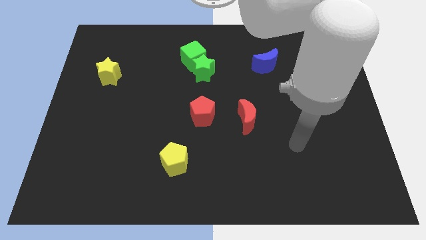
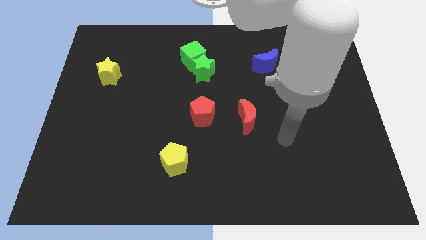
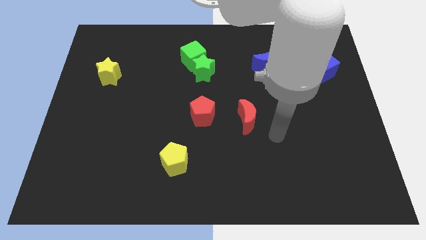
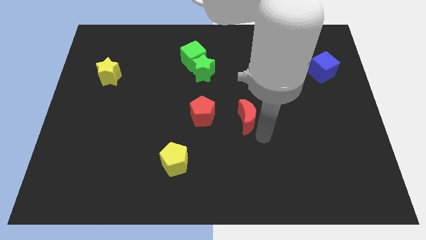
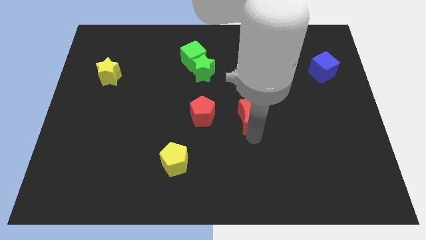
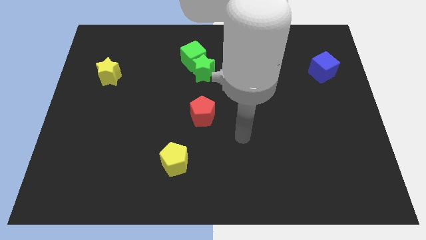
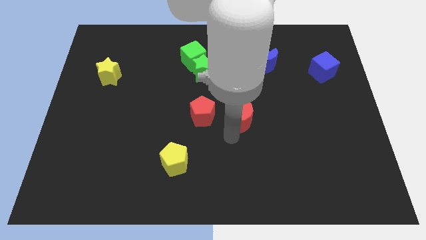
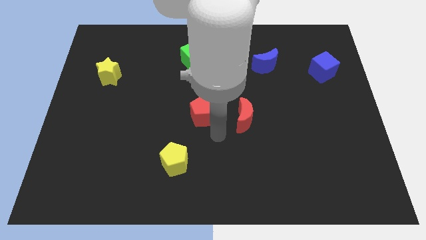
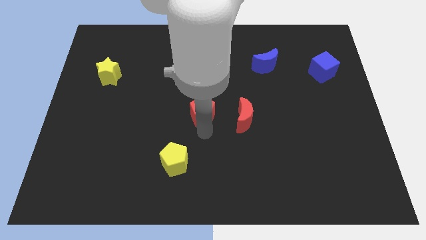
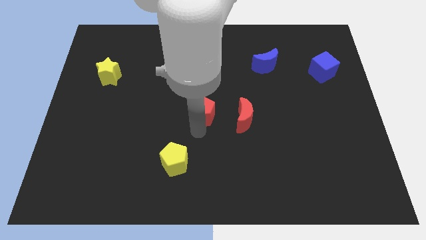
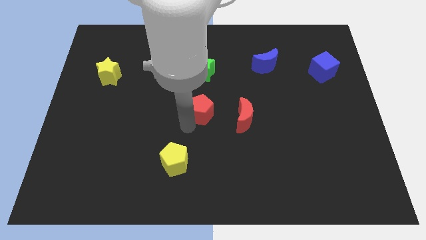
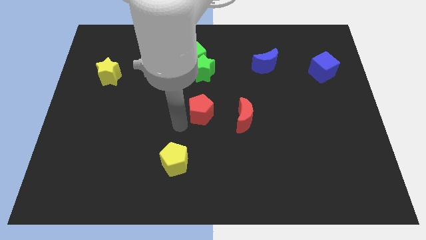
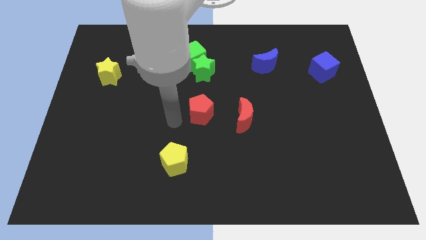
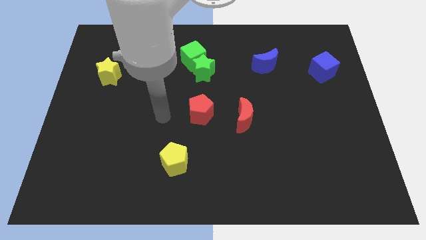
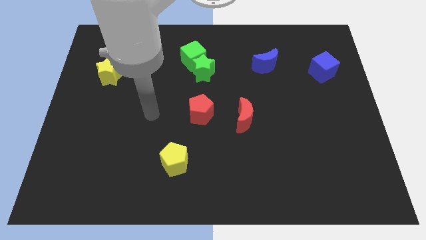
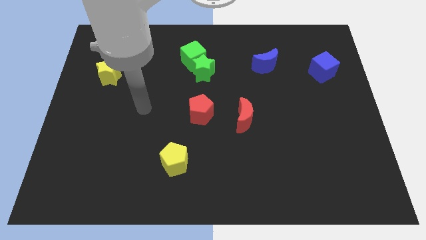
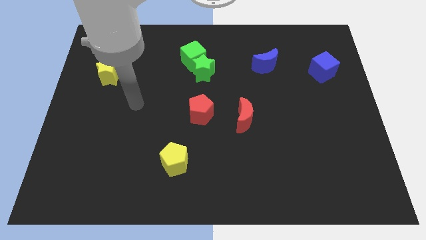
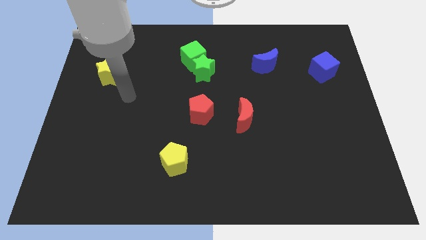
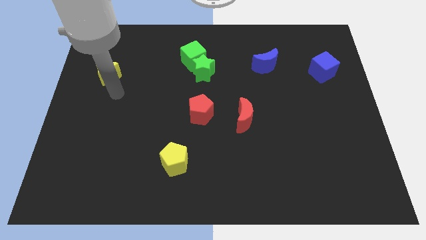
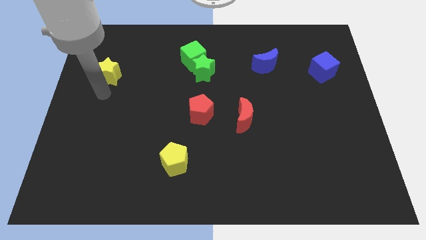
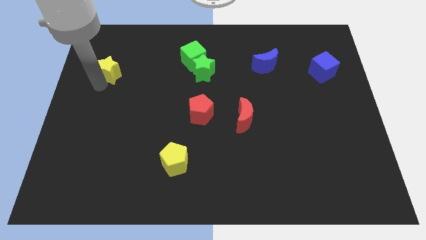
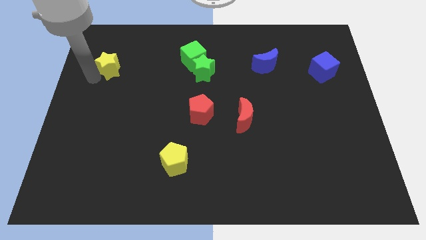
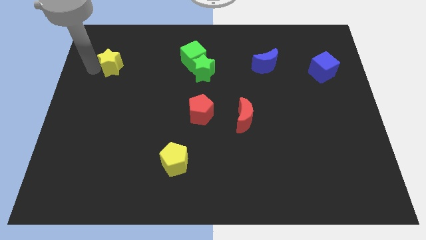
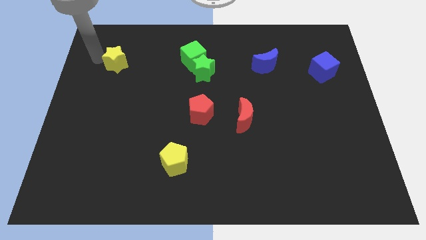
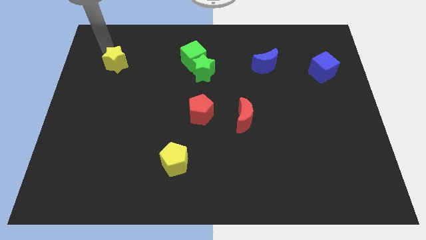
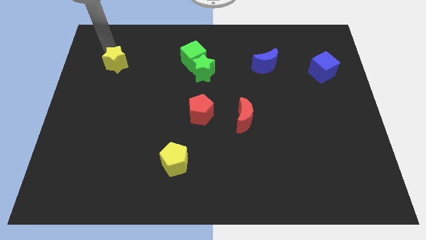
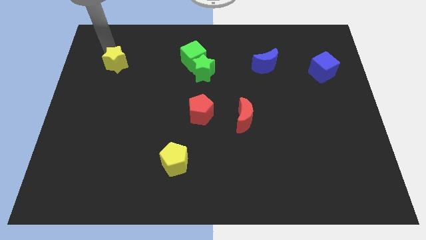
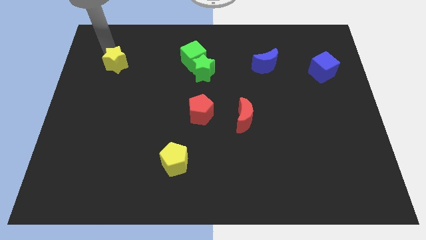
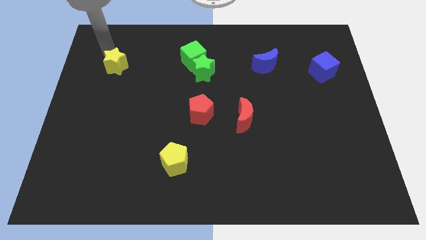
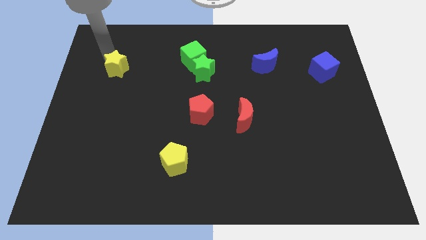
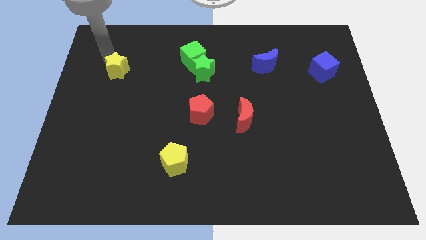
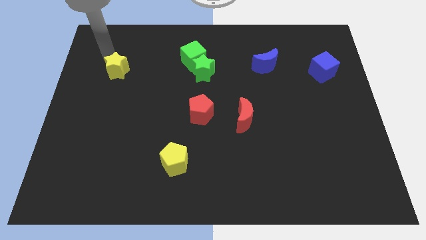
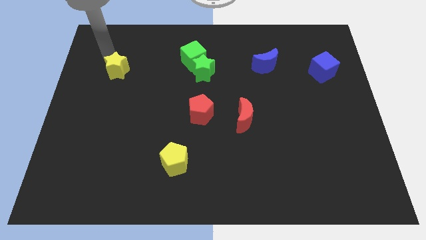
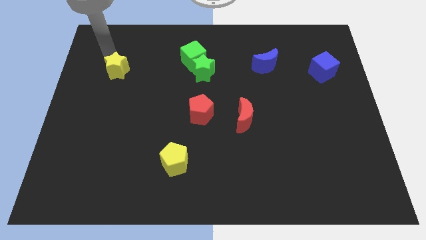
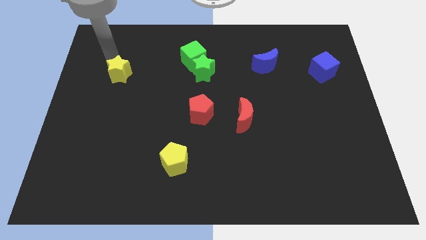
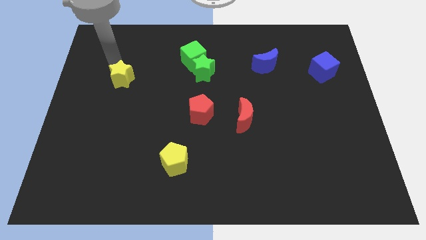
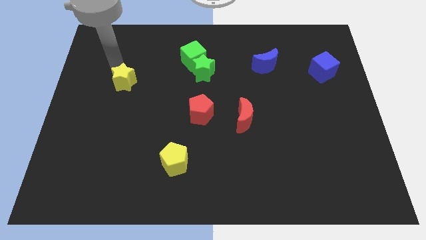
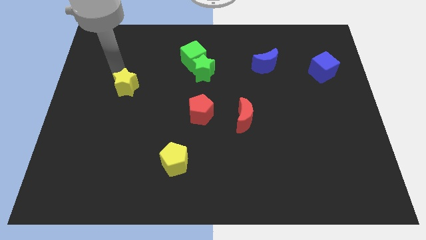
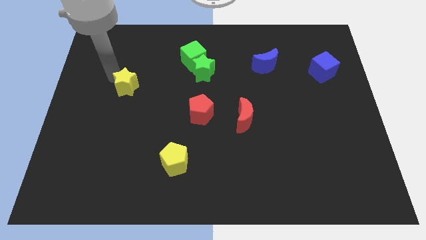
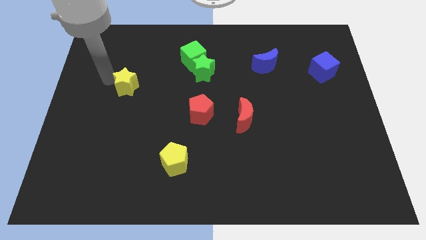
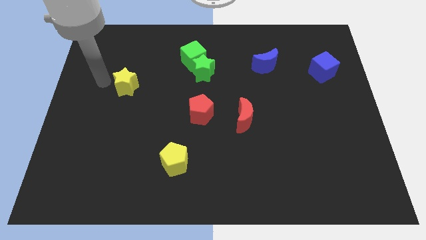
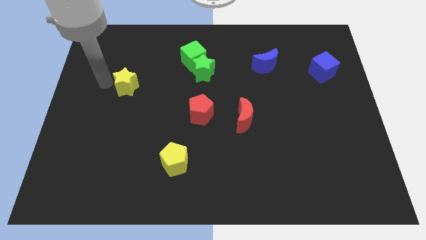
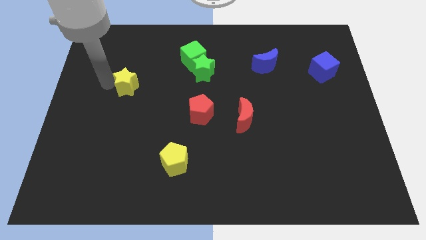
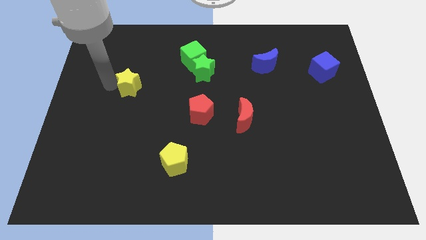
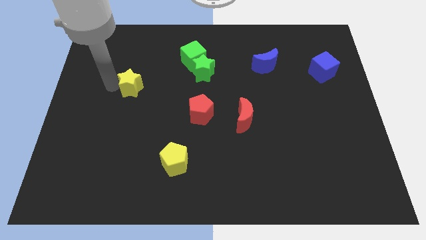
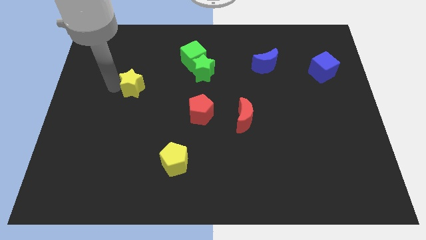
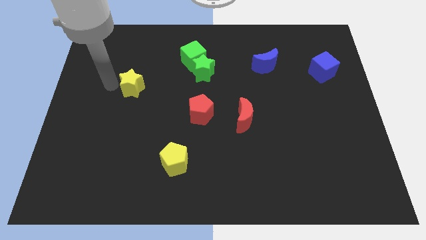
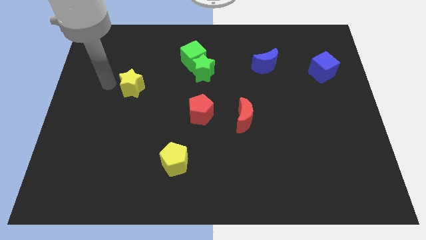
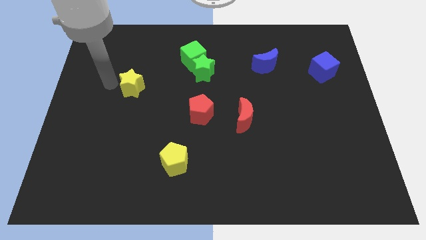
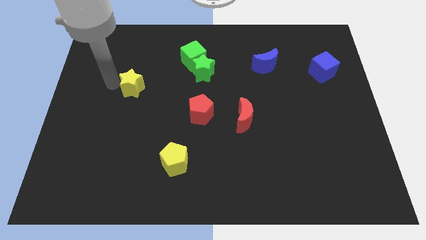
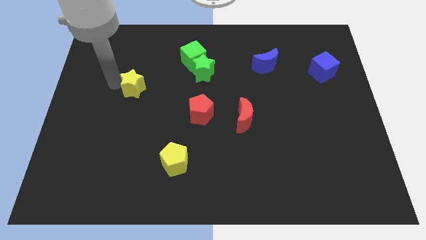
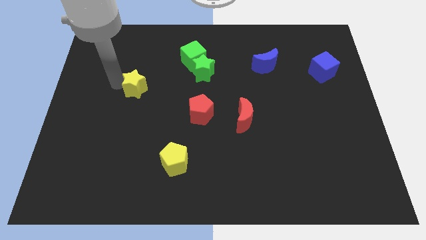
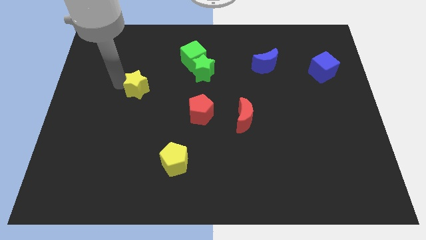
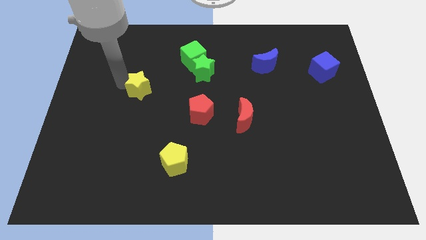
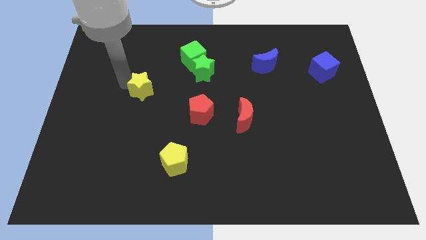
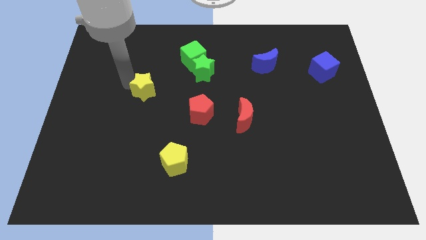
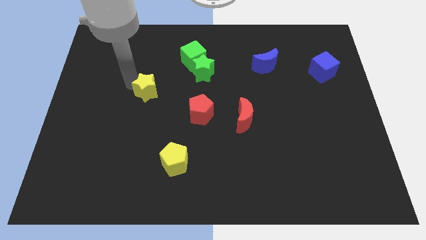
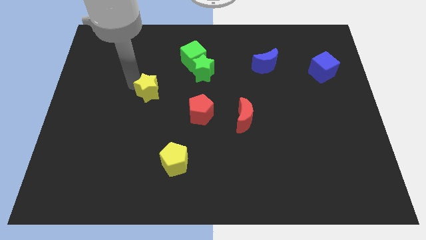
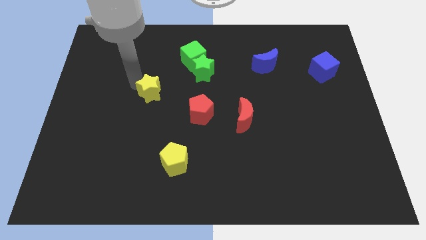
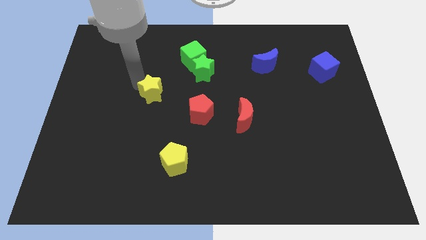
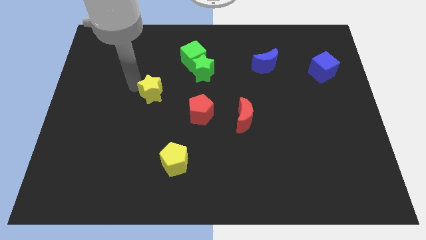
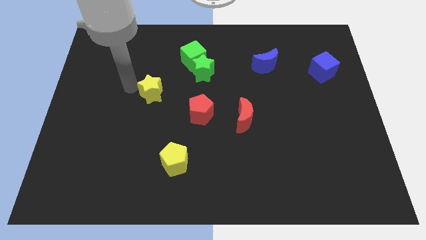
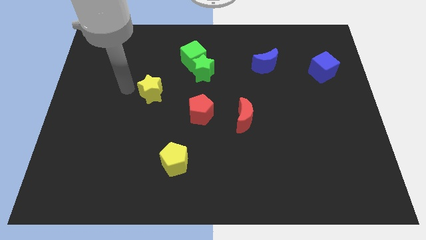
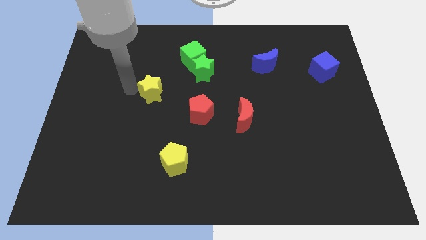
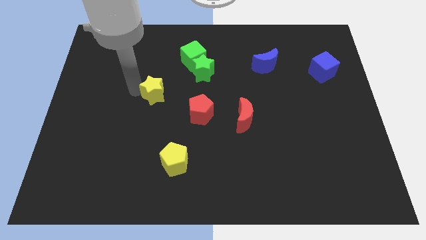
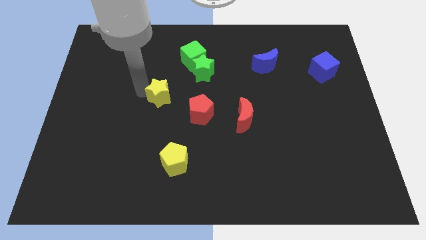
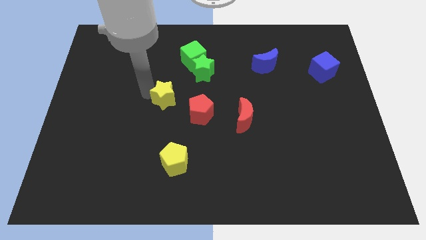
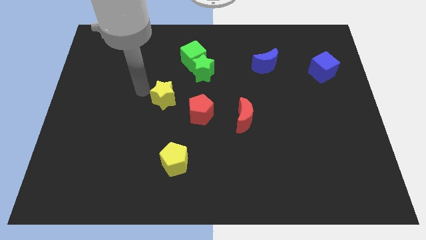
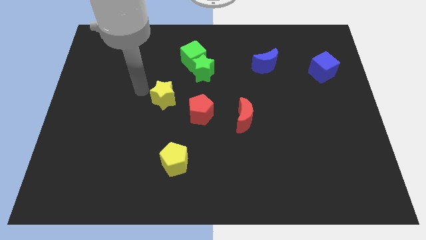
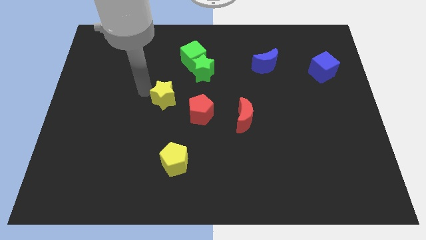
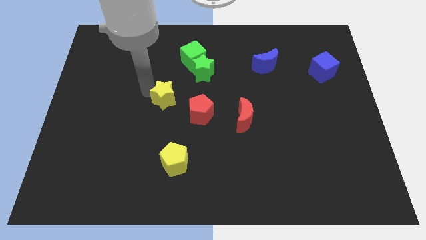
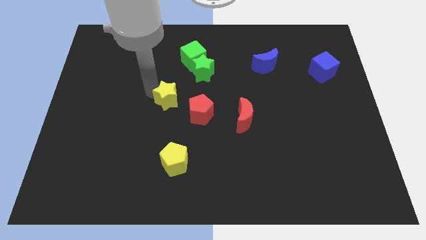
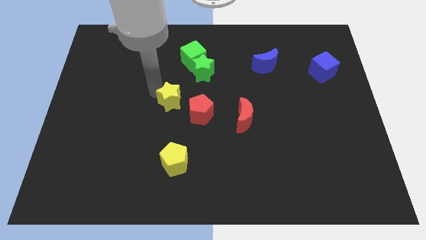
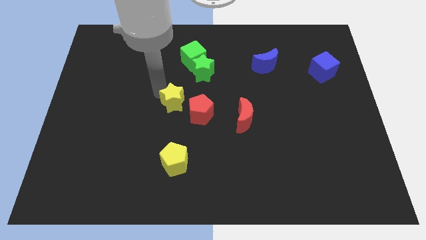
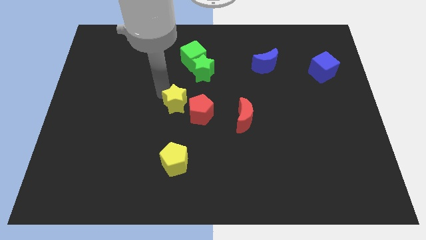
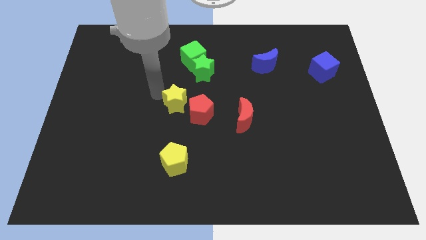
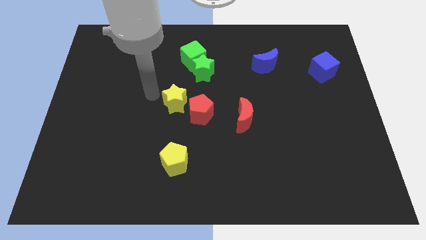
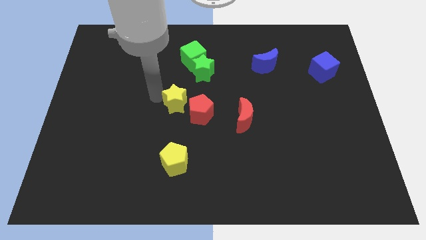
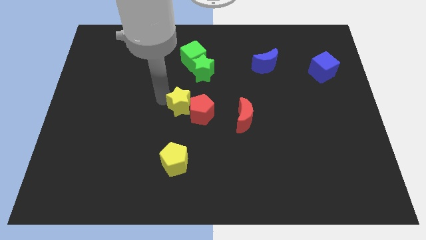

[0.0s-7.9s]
put the yellow star close to the red pentagon

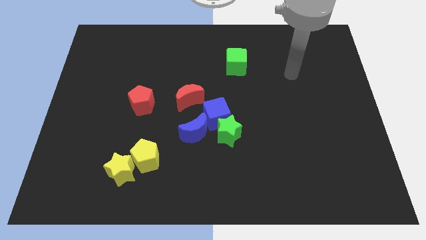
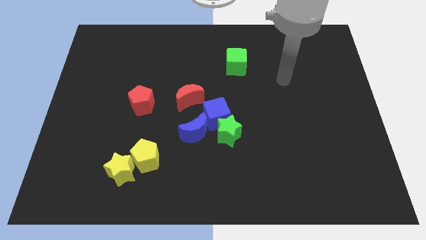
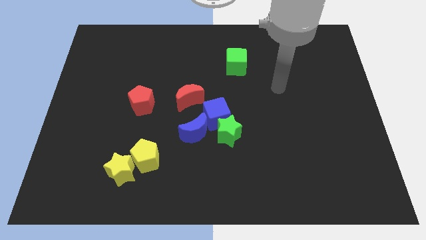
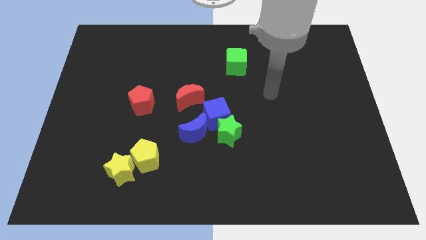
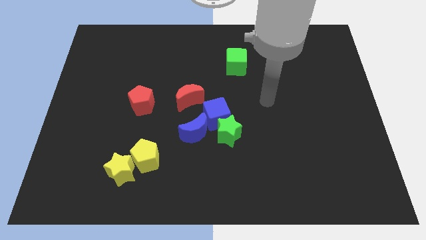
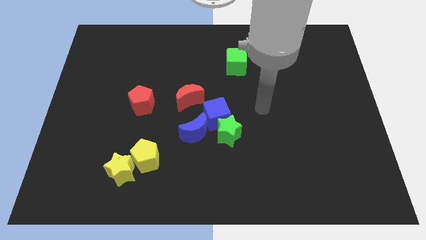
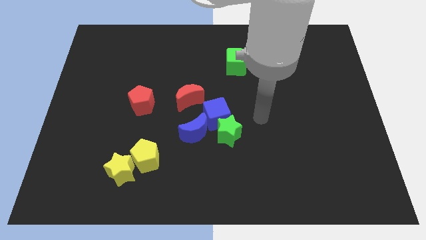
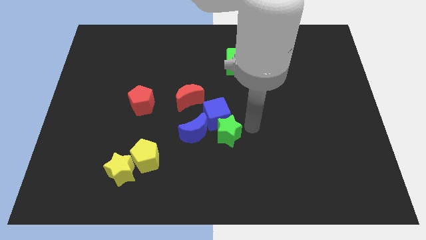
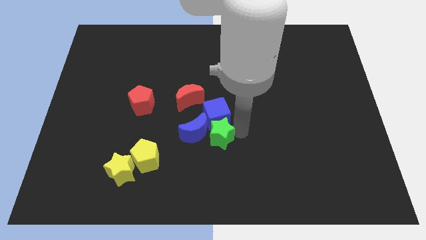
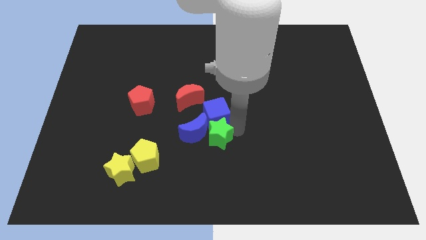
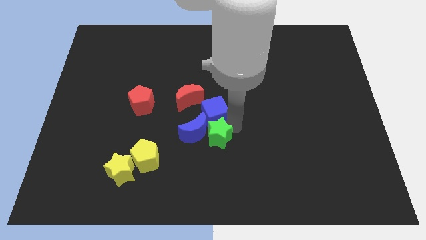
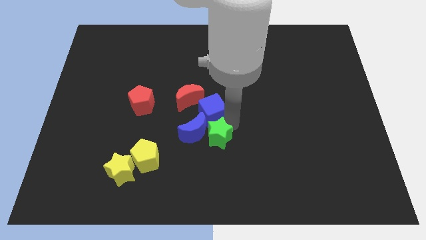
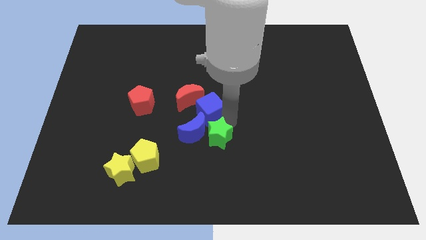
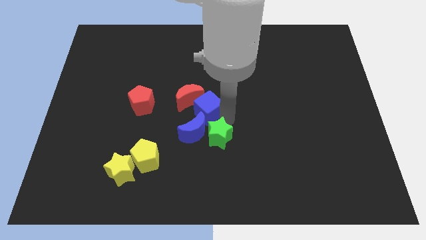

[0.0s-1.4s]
push the blue cube next to the red moon
